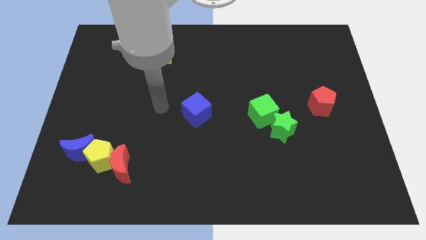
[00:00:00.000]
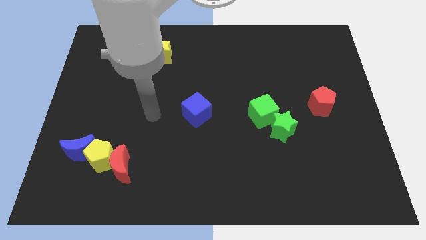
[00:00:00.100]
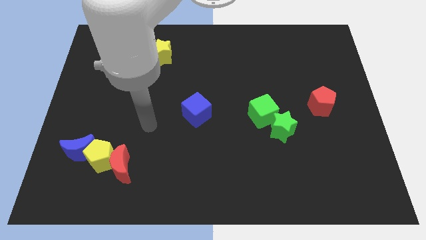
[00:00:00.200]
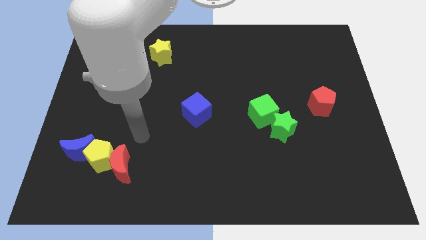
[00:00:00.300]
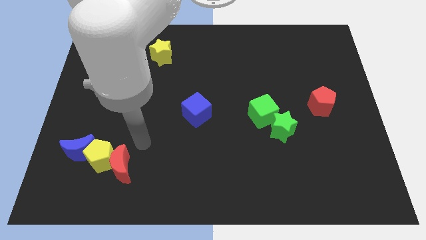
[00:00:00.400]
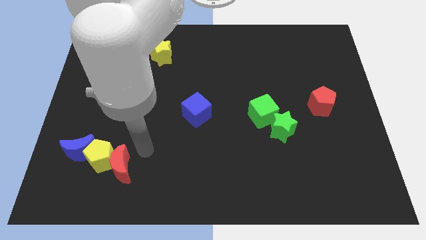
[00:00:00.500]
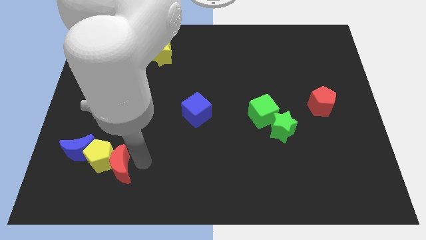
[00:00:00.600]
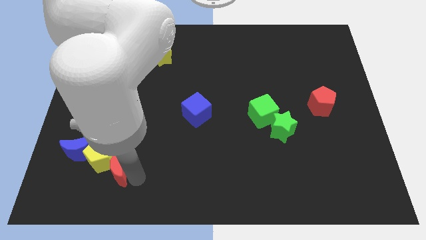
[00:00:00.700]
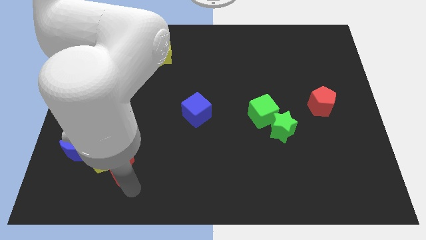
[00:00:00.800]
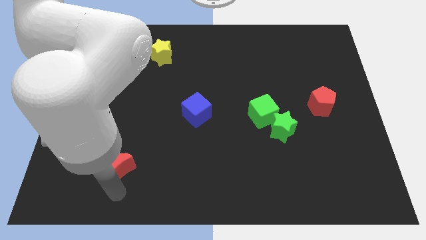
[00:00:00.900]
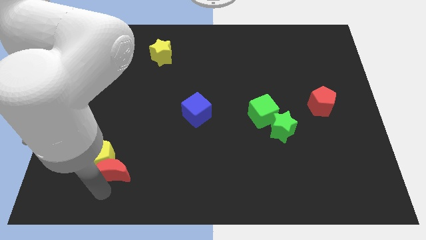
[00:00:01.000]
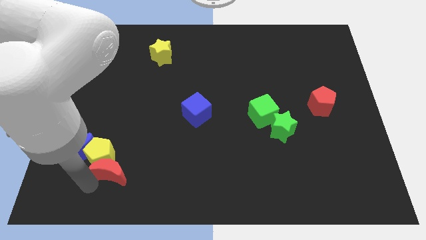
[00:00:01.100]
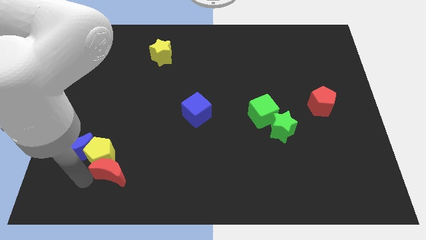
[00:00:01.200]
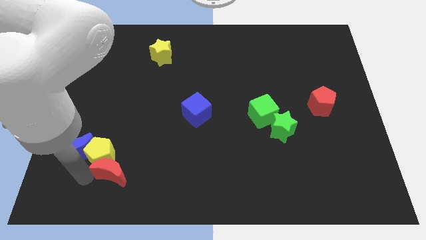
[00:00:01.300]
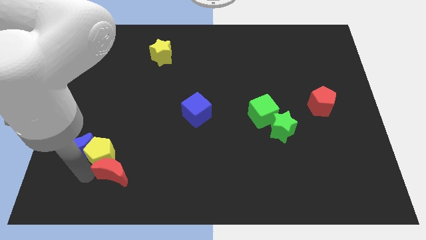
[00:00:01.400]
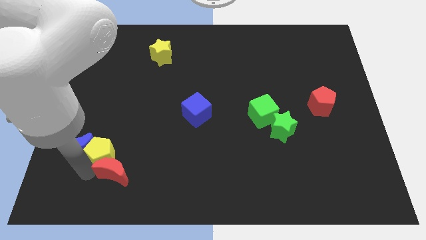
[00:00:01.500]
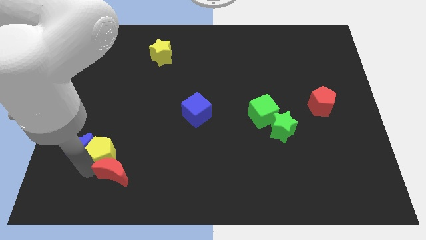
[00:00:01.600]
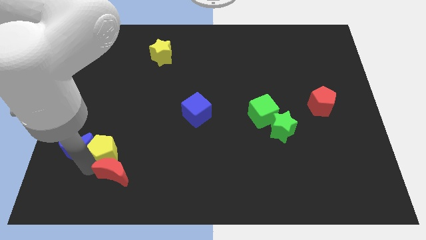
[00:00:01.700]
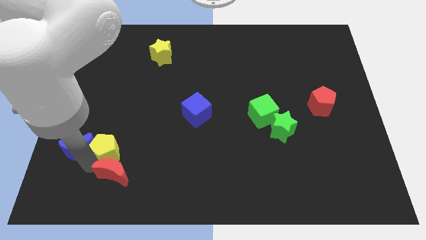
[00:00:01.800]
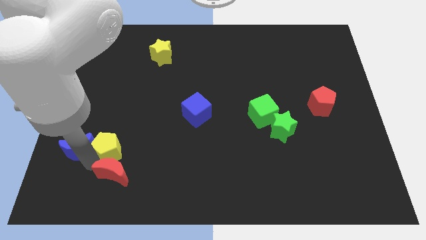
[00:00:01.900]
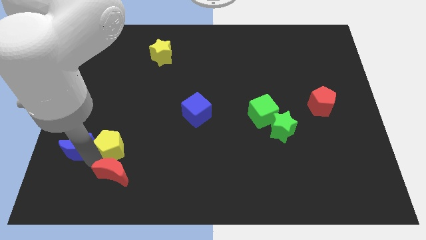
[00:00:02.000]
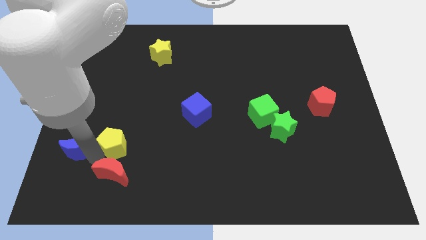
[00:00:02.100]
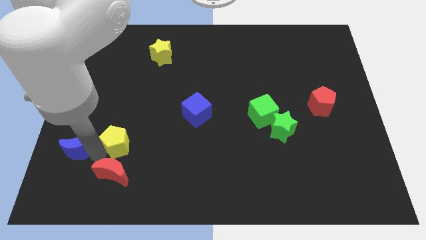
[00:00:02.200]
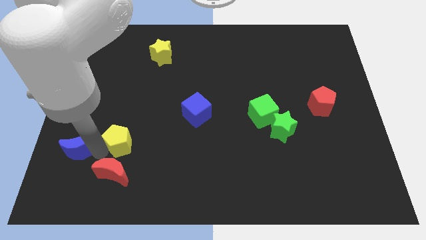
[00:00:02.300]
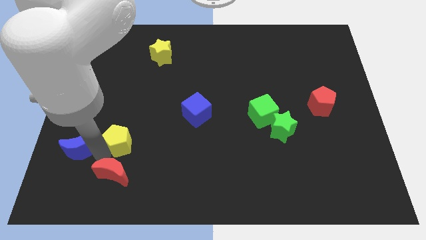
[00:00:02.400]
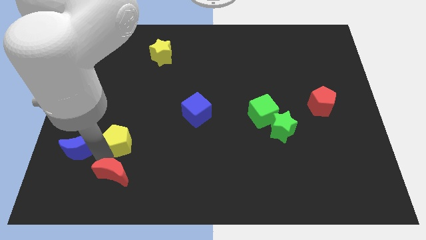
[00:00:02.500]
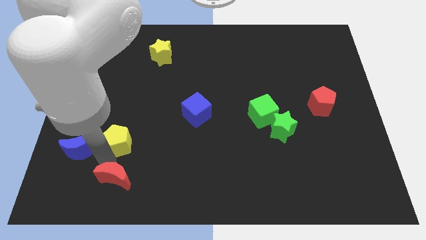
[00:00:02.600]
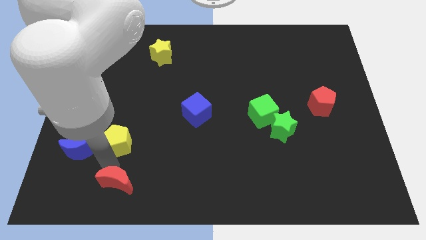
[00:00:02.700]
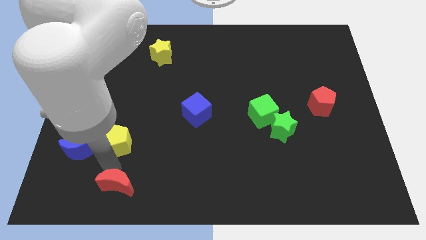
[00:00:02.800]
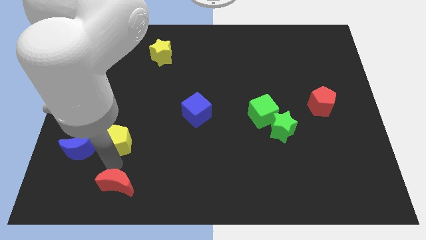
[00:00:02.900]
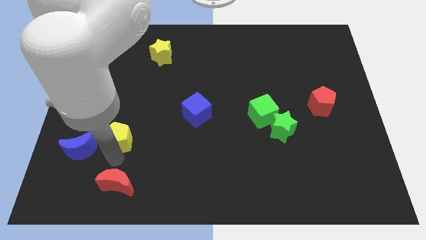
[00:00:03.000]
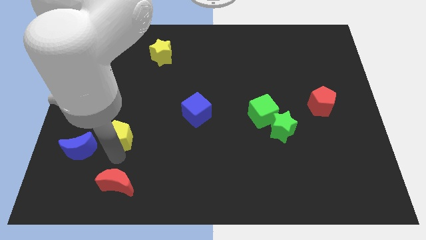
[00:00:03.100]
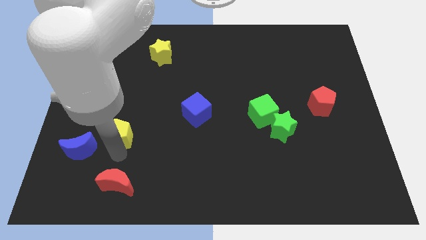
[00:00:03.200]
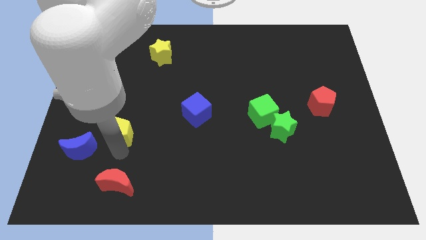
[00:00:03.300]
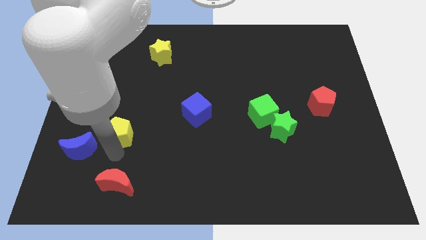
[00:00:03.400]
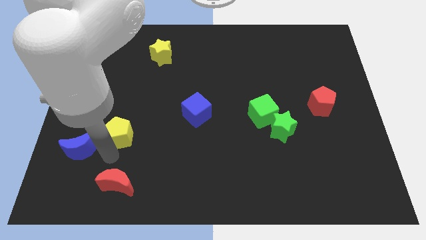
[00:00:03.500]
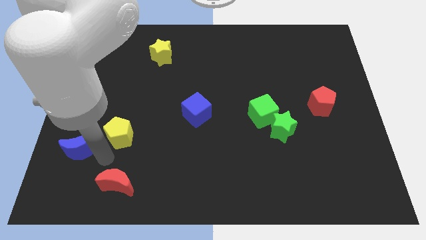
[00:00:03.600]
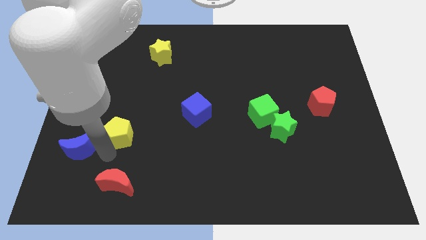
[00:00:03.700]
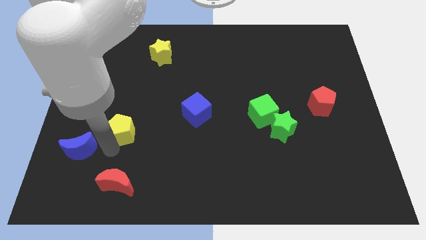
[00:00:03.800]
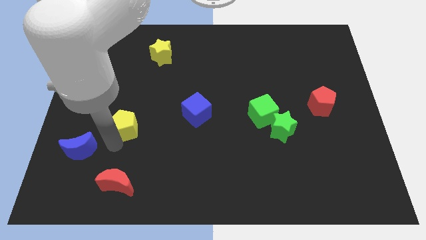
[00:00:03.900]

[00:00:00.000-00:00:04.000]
move the yellow pentagon away from the red moon and blue moon

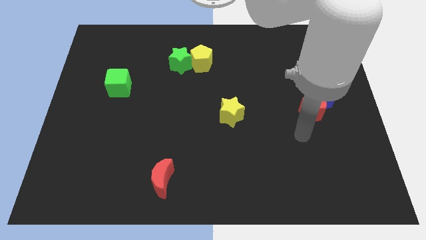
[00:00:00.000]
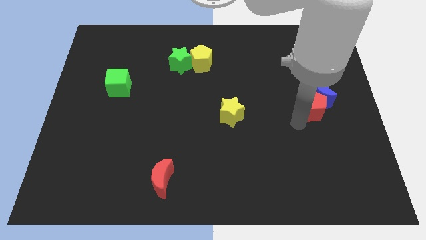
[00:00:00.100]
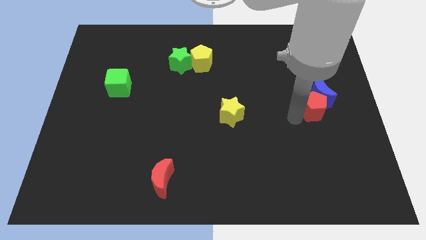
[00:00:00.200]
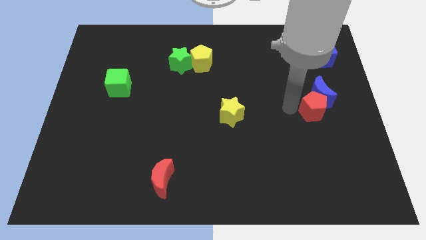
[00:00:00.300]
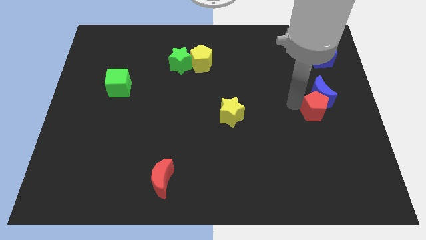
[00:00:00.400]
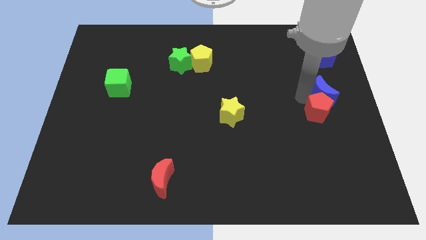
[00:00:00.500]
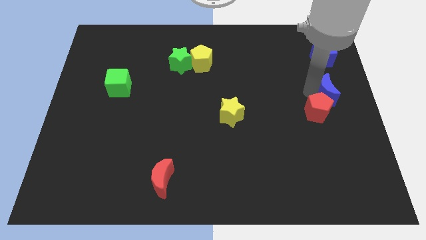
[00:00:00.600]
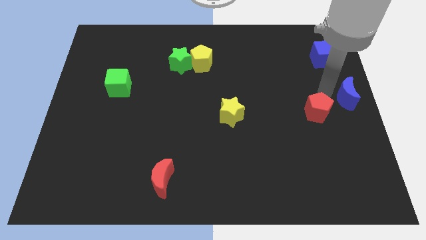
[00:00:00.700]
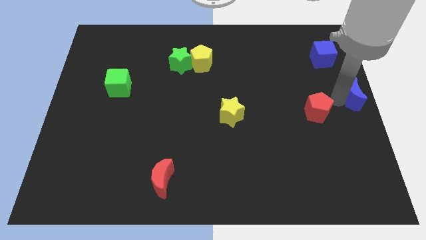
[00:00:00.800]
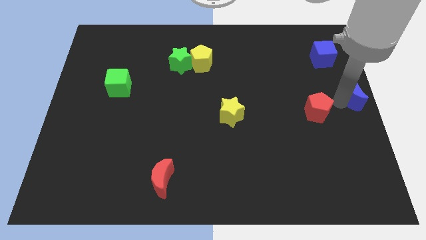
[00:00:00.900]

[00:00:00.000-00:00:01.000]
move the red pentagon away from the blue moon

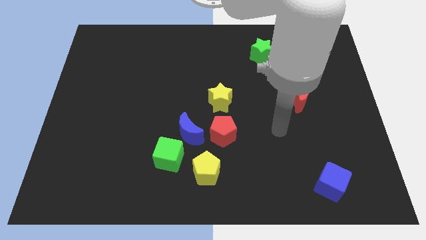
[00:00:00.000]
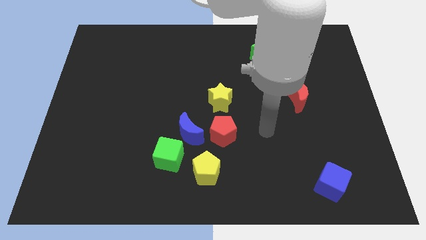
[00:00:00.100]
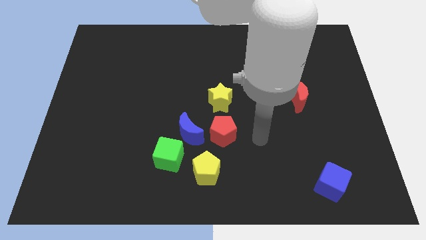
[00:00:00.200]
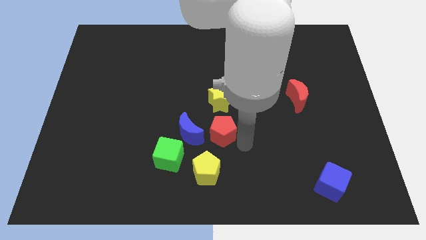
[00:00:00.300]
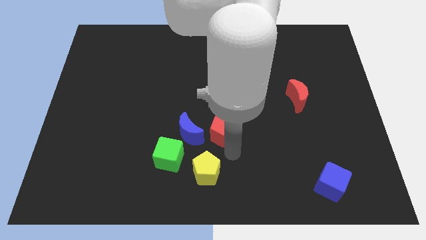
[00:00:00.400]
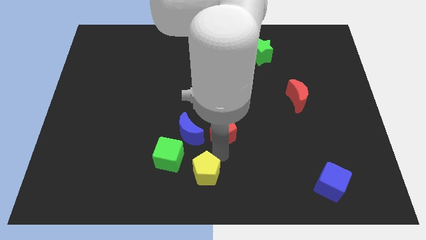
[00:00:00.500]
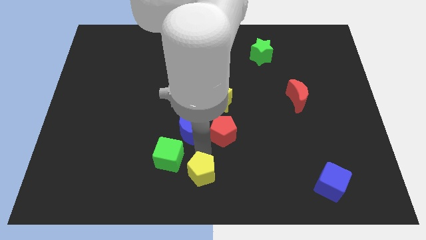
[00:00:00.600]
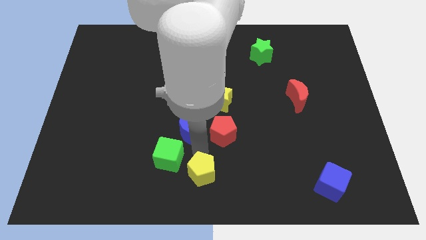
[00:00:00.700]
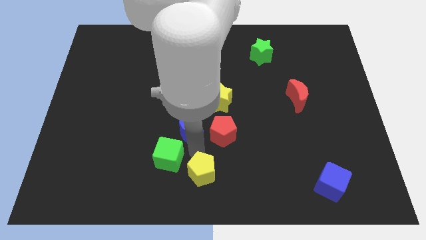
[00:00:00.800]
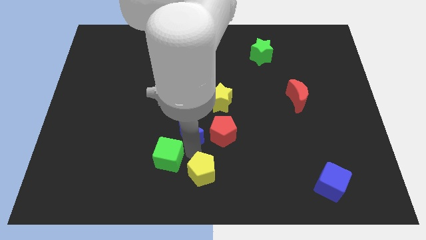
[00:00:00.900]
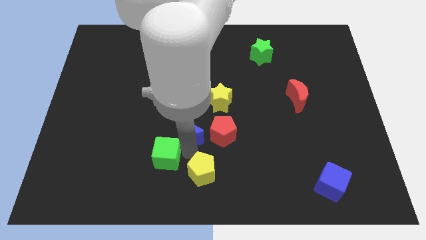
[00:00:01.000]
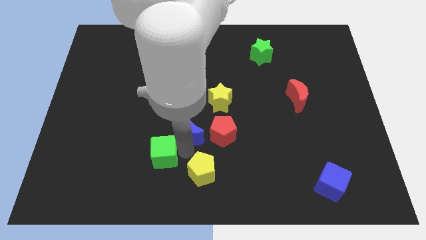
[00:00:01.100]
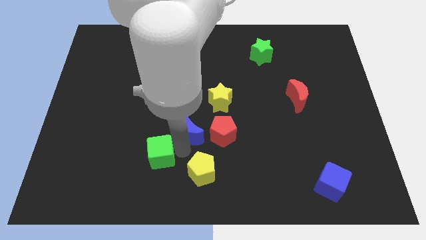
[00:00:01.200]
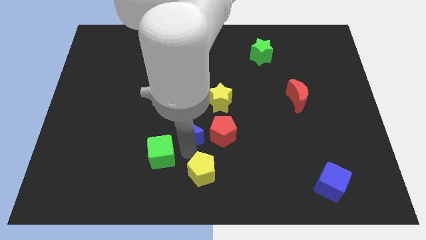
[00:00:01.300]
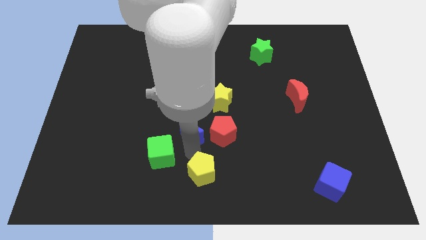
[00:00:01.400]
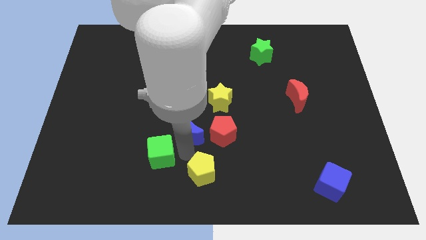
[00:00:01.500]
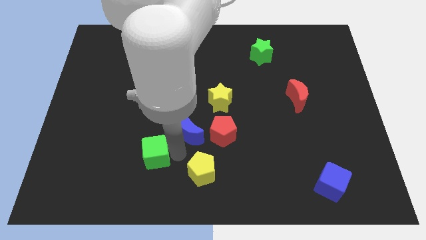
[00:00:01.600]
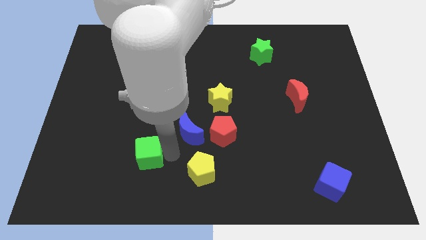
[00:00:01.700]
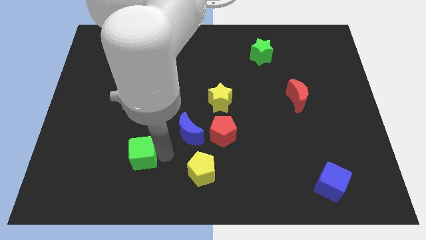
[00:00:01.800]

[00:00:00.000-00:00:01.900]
pull the green cube apart from the blue moon and yellow pentagon

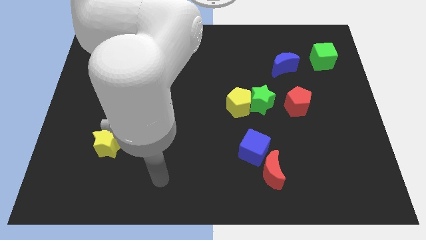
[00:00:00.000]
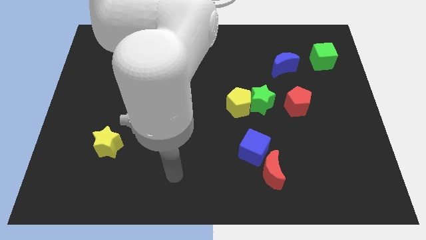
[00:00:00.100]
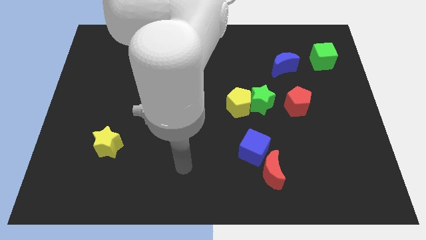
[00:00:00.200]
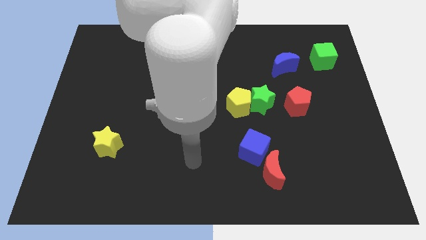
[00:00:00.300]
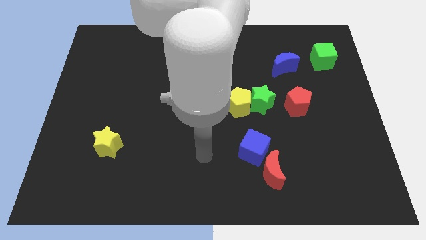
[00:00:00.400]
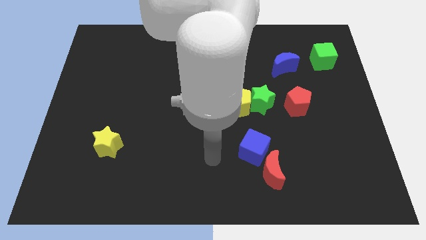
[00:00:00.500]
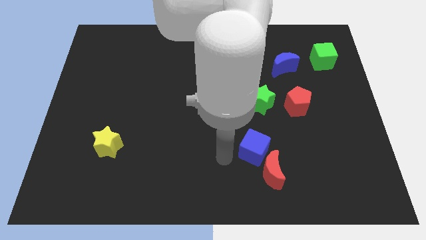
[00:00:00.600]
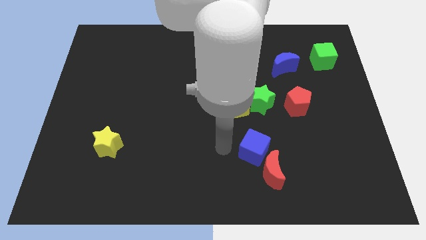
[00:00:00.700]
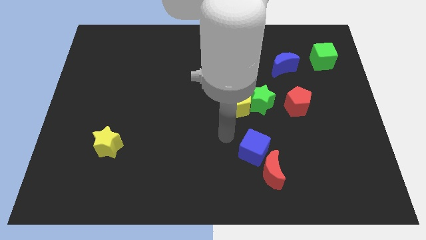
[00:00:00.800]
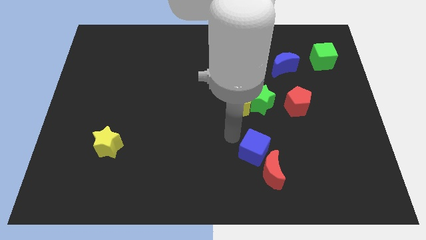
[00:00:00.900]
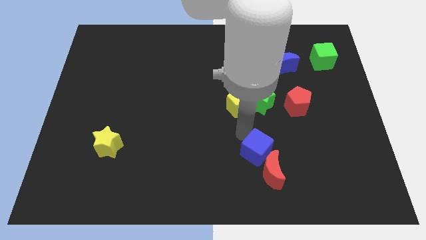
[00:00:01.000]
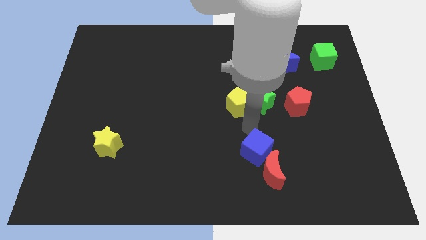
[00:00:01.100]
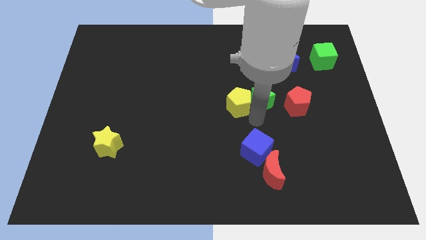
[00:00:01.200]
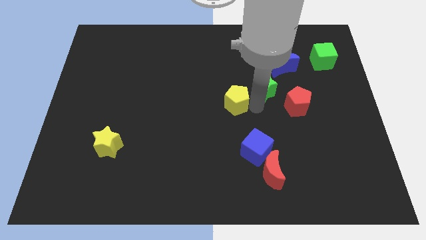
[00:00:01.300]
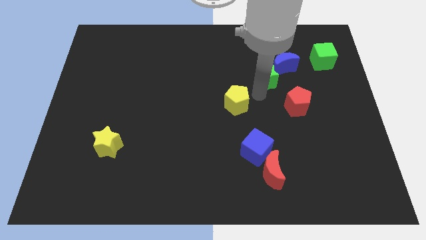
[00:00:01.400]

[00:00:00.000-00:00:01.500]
move the yellow pentagon away from the green star

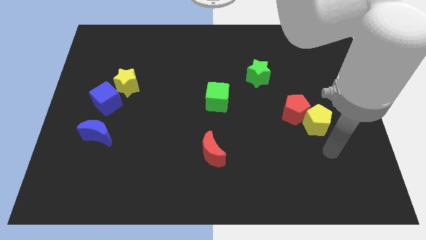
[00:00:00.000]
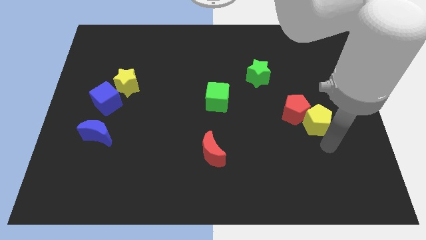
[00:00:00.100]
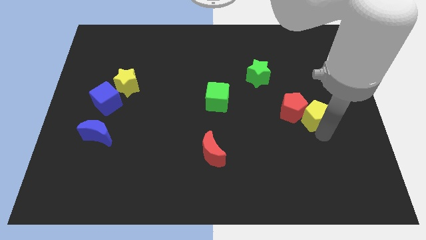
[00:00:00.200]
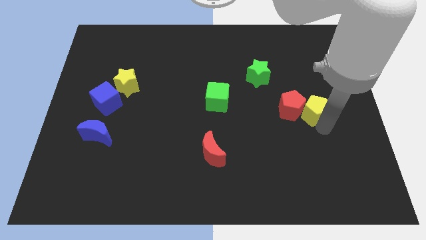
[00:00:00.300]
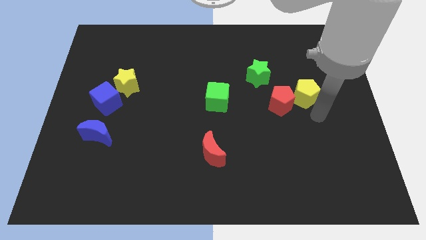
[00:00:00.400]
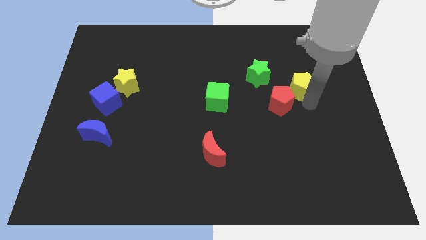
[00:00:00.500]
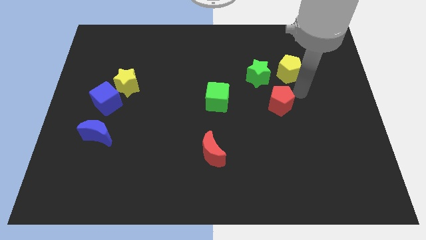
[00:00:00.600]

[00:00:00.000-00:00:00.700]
separate the red pentagon from the yellow pentagon
